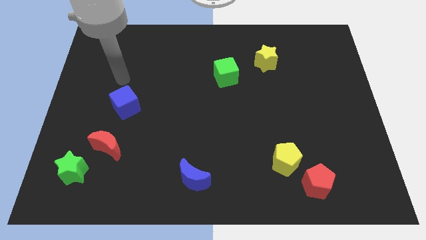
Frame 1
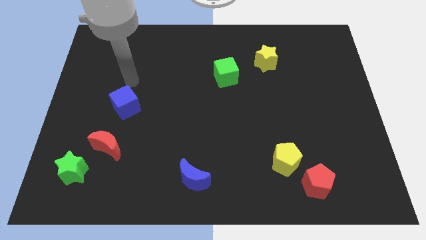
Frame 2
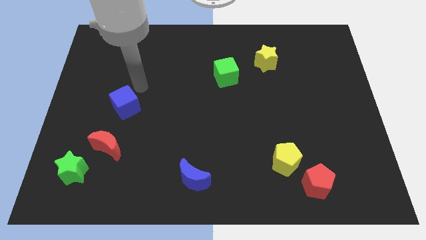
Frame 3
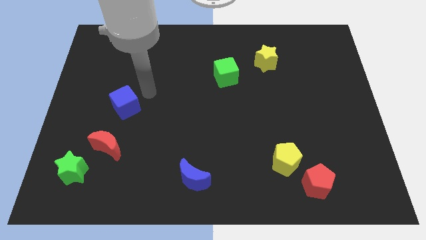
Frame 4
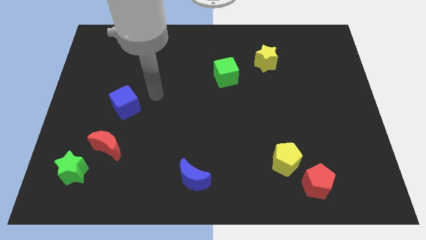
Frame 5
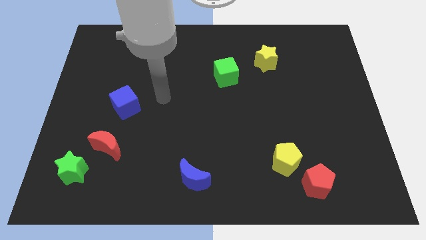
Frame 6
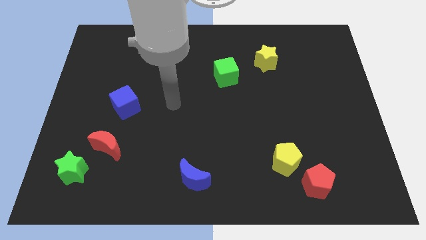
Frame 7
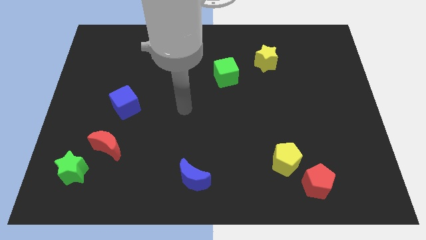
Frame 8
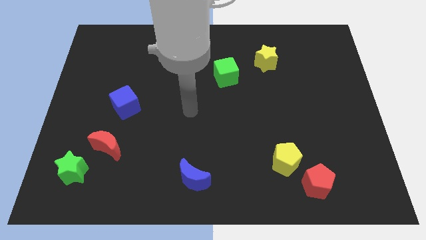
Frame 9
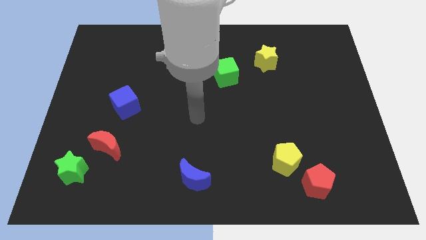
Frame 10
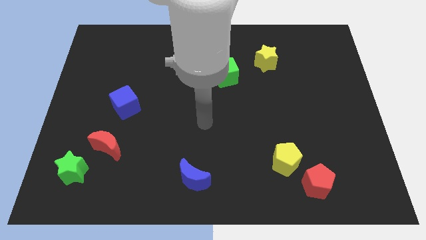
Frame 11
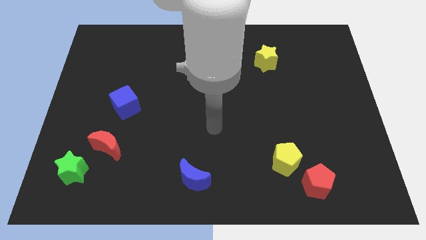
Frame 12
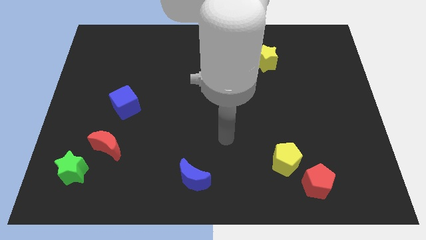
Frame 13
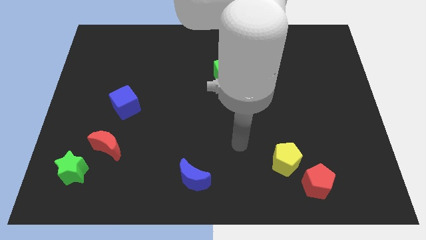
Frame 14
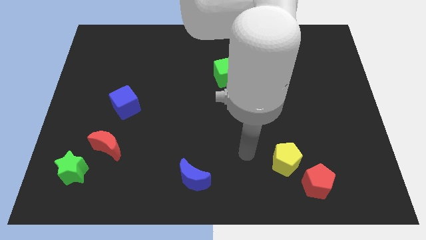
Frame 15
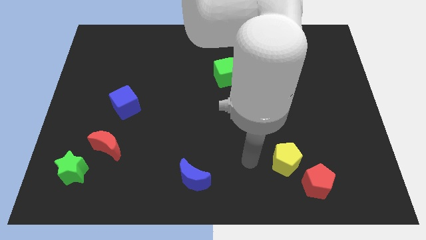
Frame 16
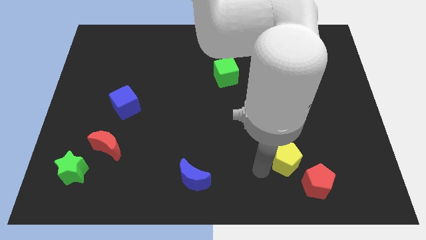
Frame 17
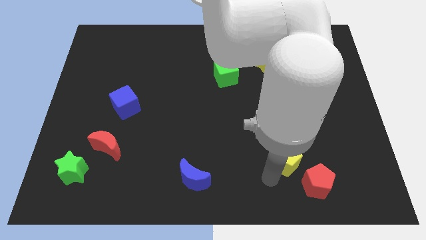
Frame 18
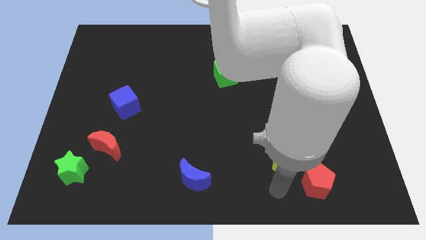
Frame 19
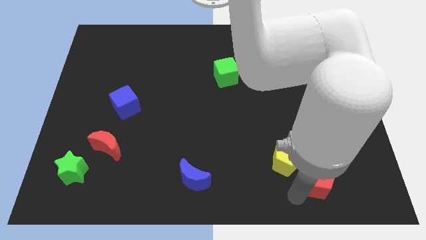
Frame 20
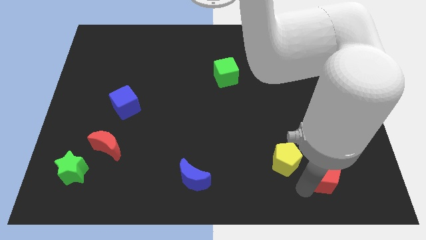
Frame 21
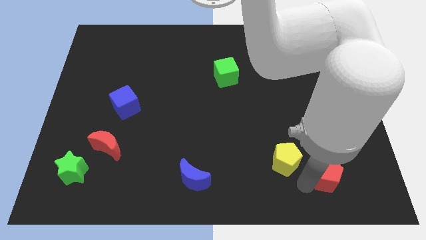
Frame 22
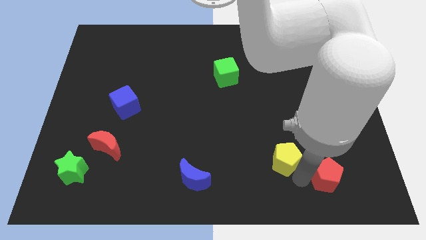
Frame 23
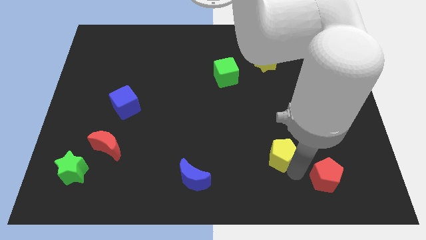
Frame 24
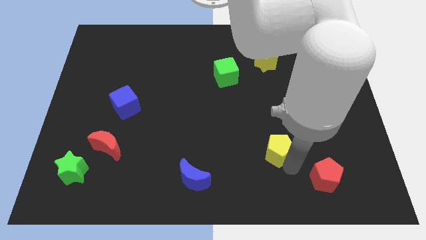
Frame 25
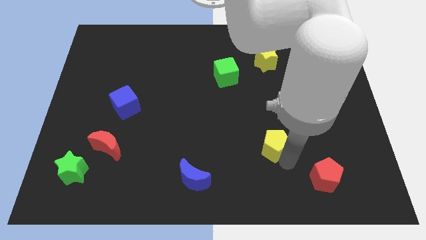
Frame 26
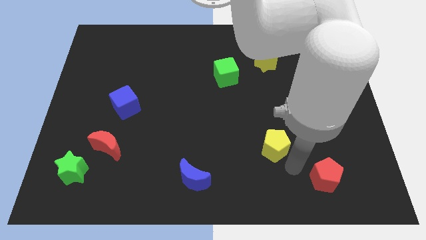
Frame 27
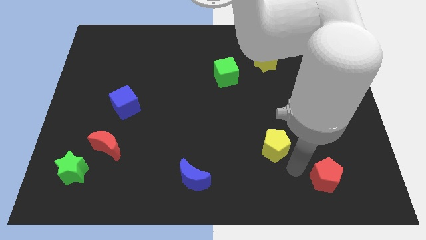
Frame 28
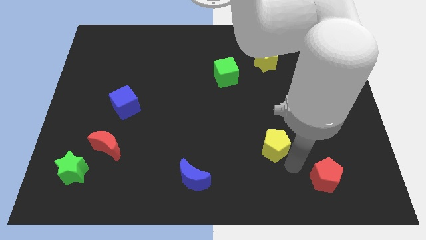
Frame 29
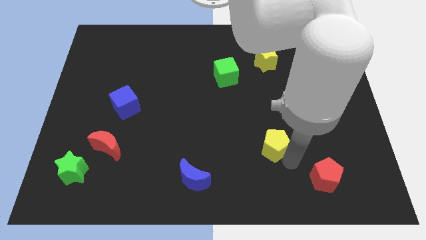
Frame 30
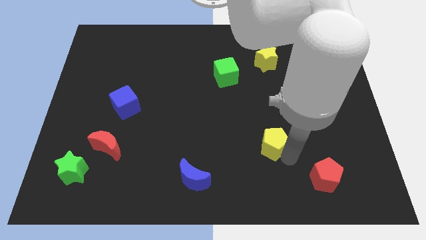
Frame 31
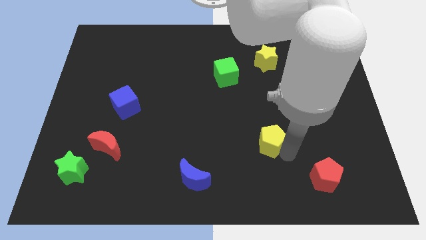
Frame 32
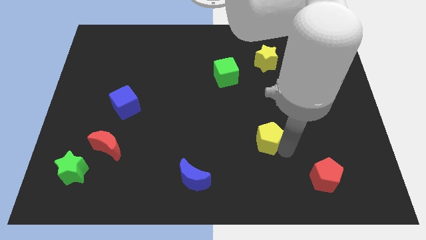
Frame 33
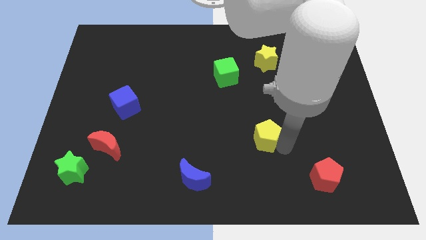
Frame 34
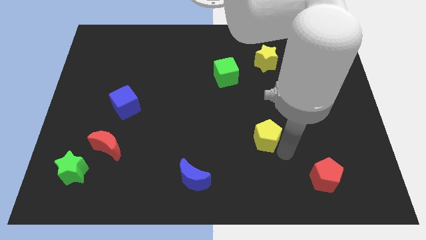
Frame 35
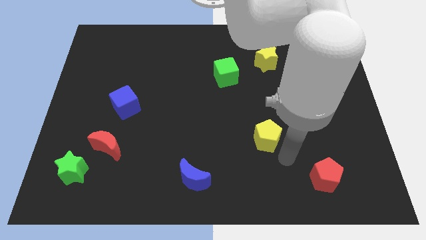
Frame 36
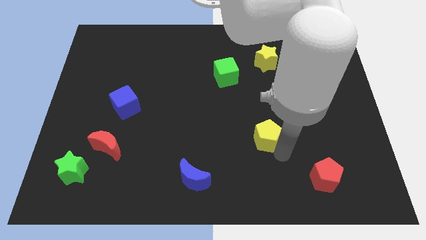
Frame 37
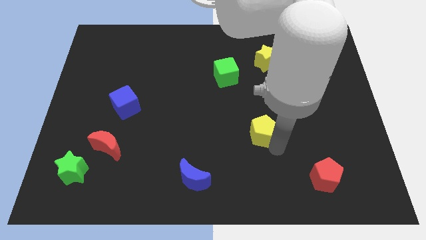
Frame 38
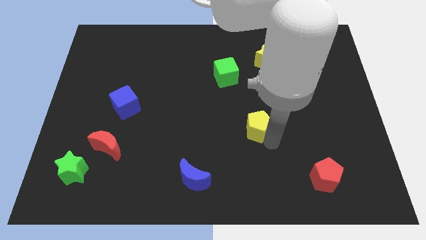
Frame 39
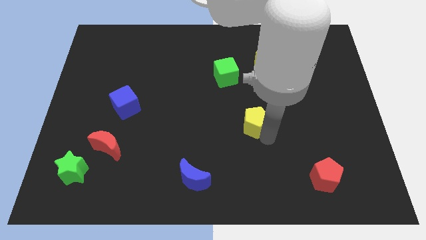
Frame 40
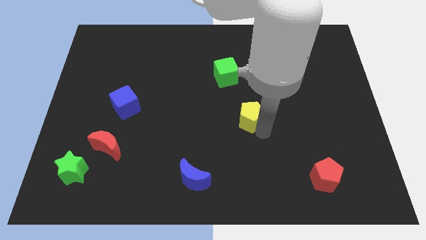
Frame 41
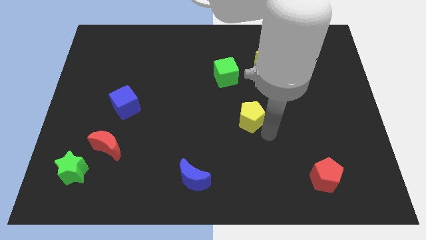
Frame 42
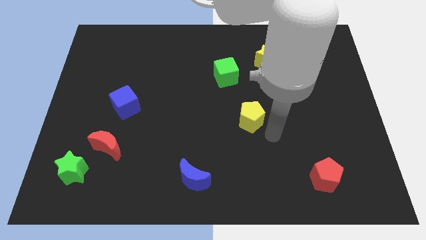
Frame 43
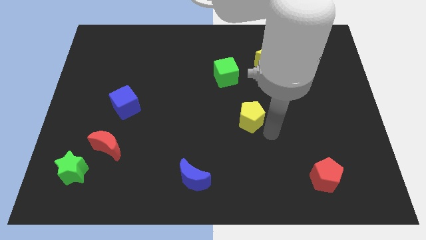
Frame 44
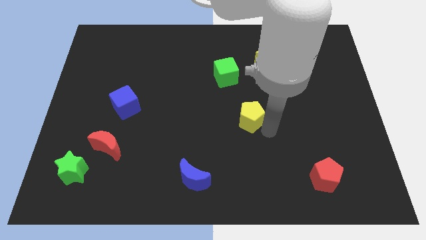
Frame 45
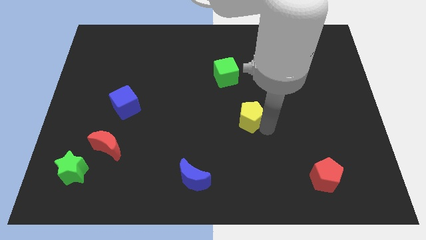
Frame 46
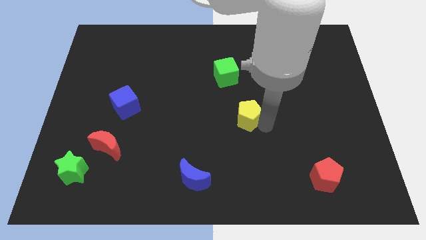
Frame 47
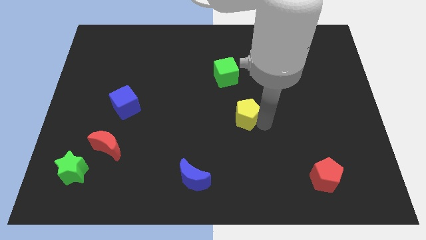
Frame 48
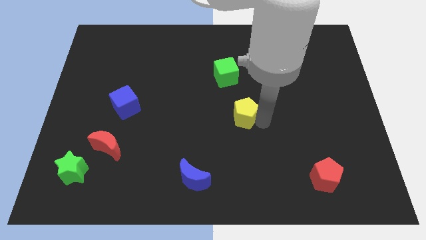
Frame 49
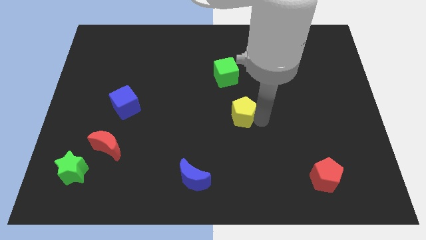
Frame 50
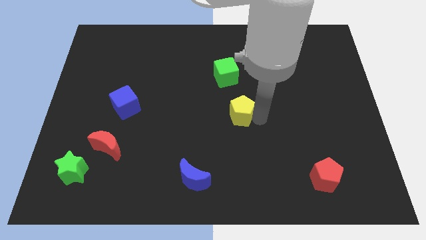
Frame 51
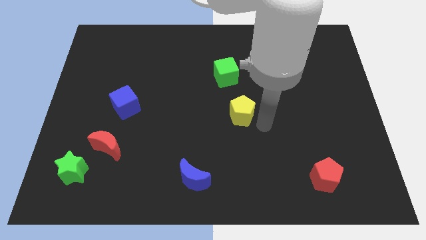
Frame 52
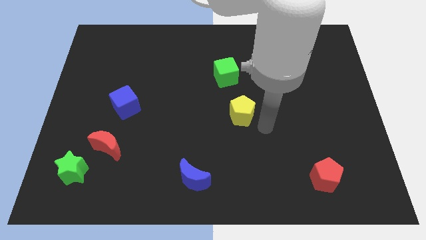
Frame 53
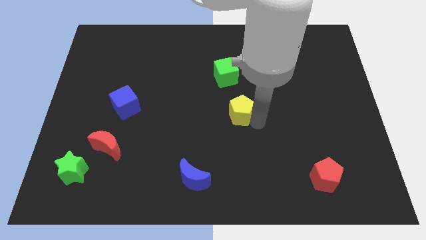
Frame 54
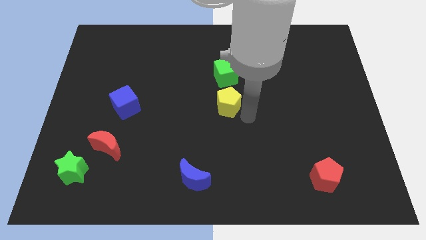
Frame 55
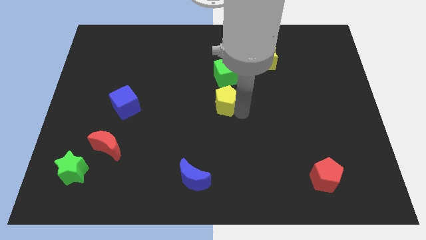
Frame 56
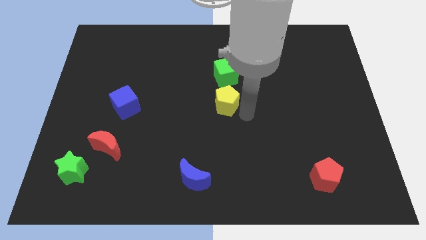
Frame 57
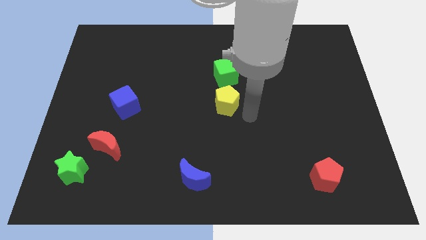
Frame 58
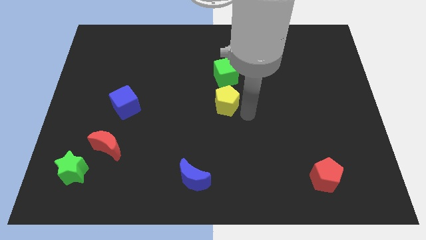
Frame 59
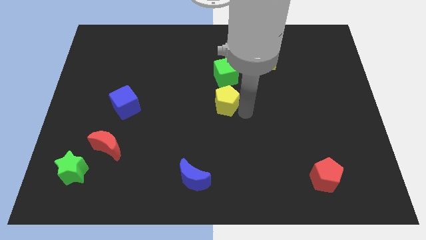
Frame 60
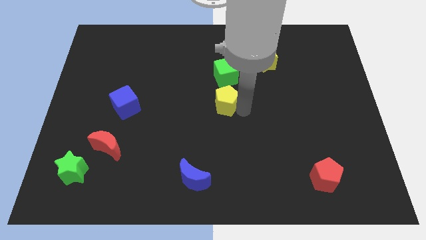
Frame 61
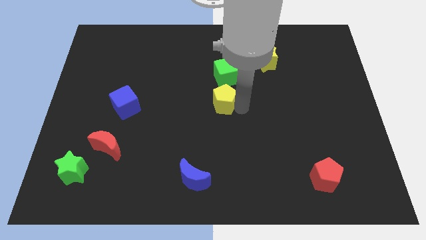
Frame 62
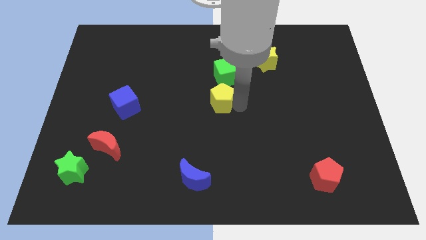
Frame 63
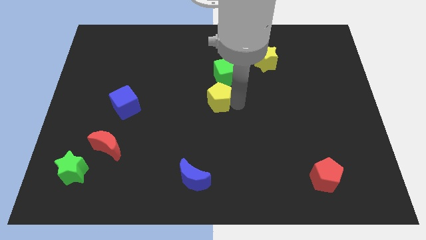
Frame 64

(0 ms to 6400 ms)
put the yellow pentagon diagonally down and to the left of the green cube

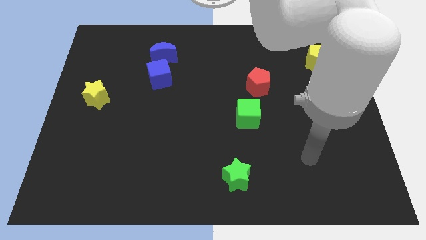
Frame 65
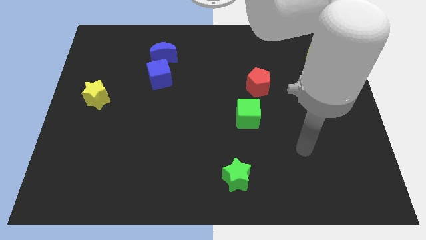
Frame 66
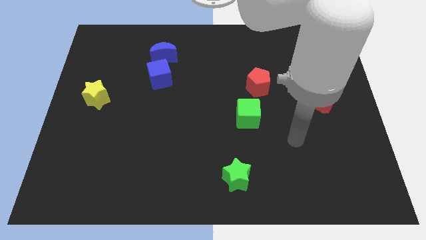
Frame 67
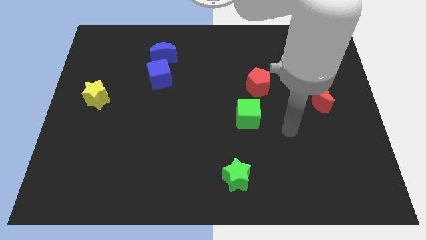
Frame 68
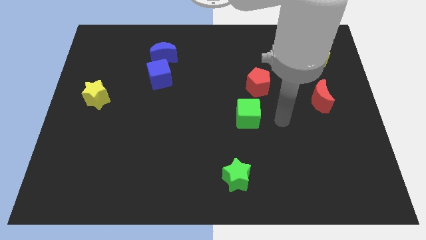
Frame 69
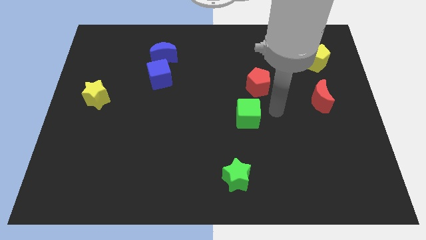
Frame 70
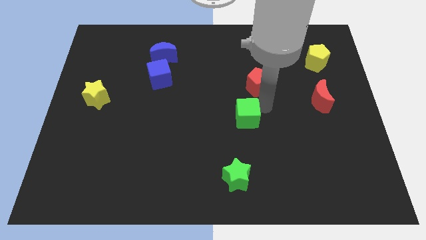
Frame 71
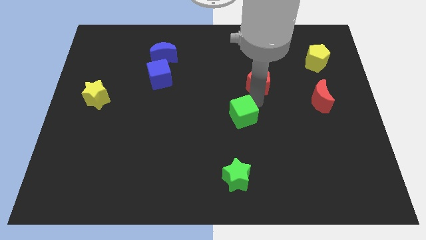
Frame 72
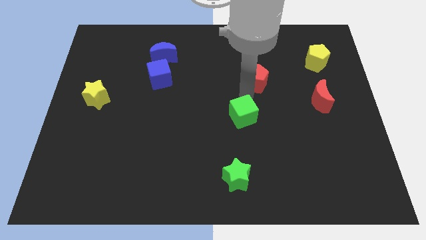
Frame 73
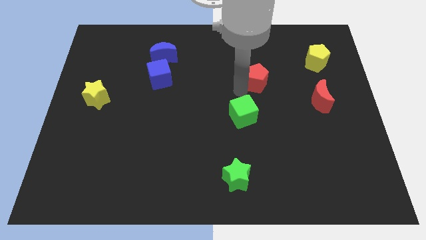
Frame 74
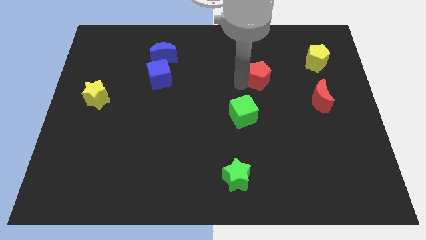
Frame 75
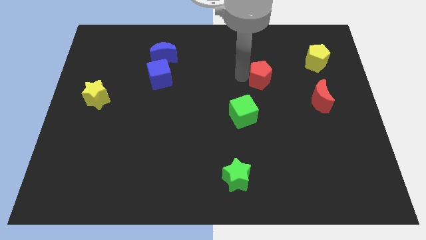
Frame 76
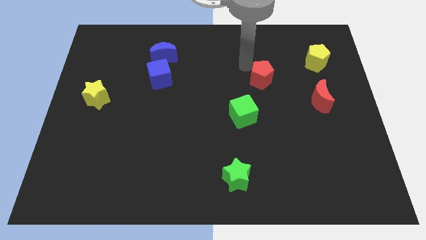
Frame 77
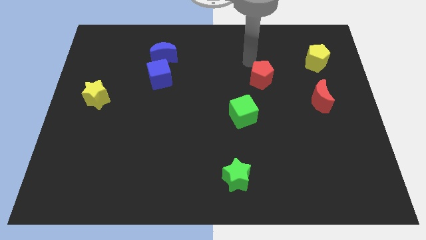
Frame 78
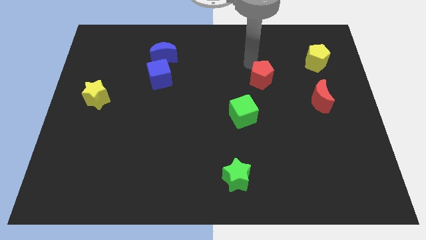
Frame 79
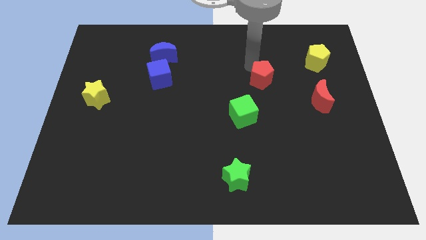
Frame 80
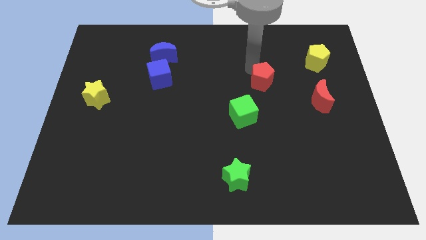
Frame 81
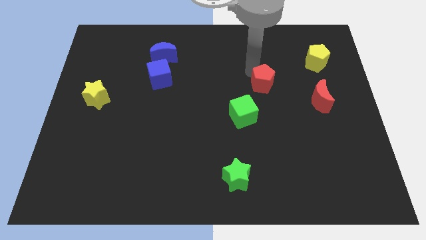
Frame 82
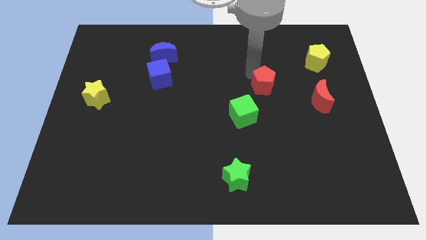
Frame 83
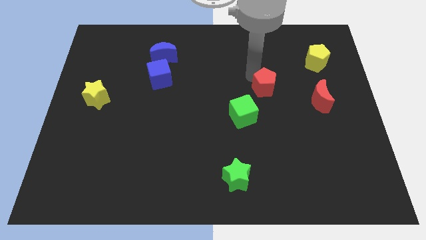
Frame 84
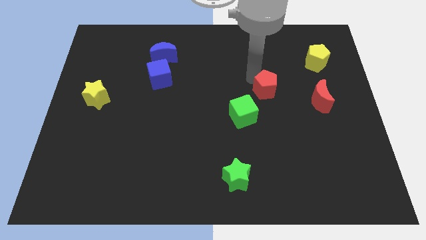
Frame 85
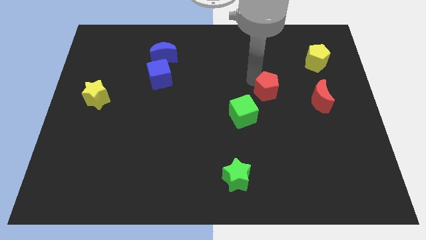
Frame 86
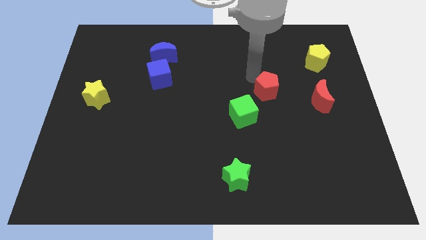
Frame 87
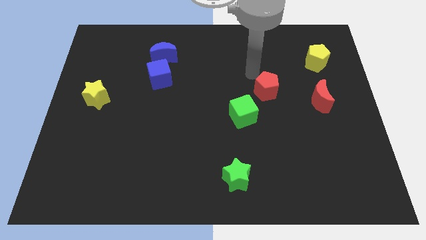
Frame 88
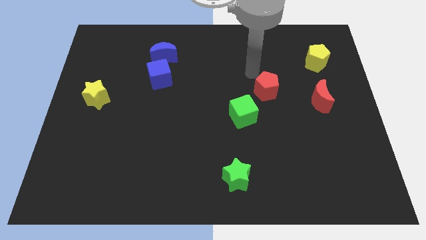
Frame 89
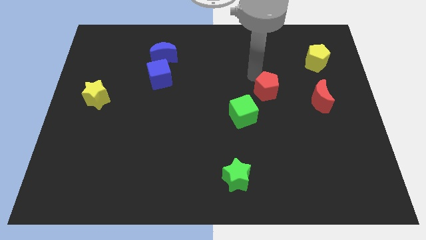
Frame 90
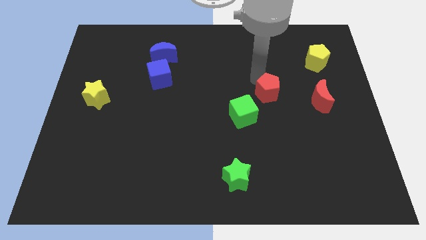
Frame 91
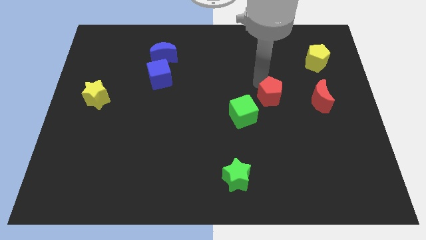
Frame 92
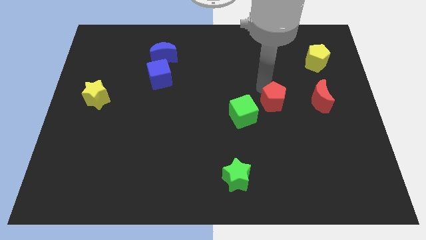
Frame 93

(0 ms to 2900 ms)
slide the red pentagon to the right of the green cube
